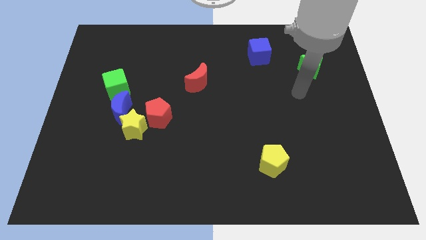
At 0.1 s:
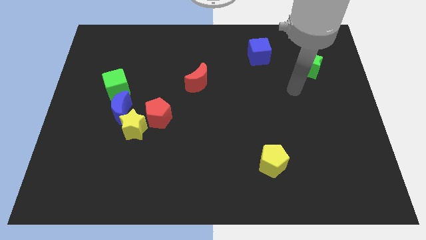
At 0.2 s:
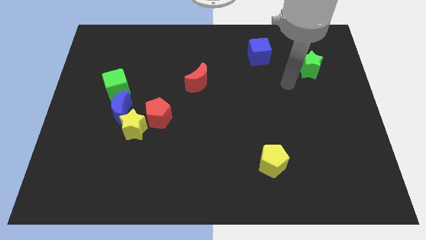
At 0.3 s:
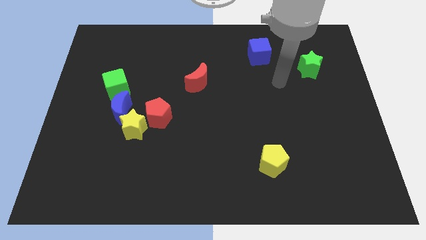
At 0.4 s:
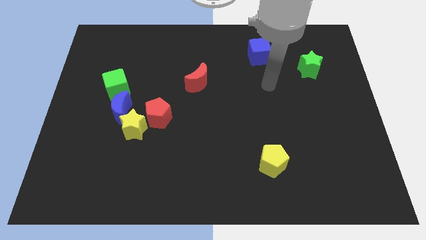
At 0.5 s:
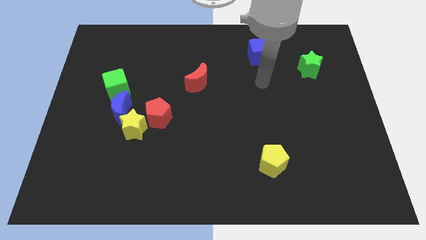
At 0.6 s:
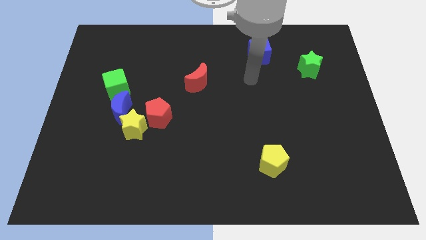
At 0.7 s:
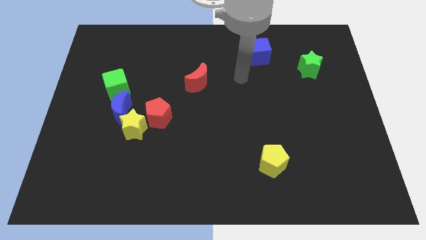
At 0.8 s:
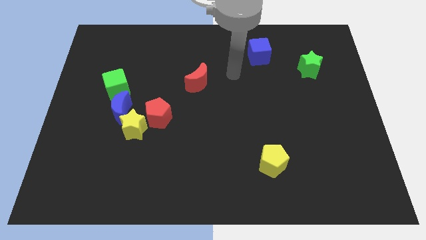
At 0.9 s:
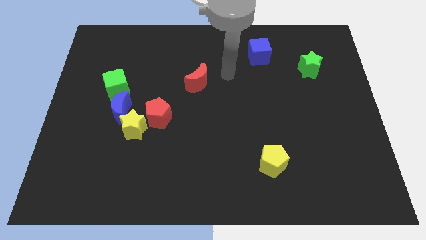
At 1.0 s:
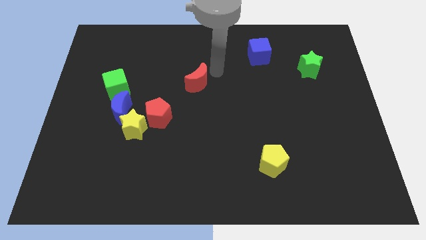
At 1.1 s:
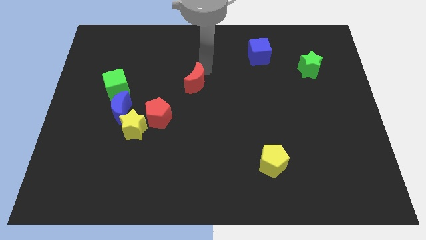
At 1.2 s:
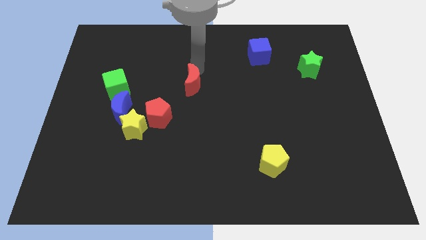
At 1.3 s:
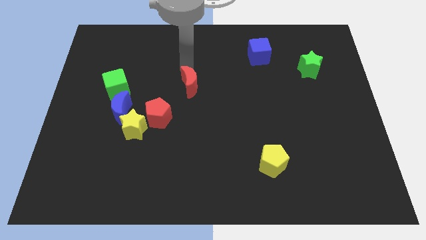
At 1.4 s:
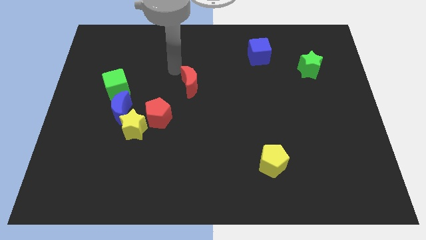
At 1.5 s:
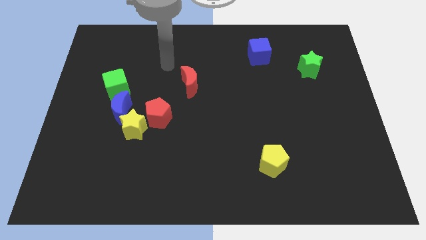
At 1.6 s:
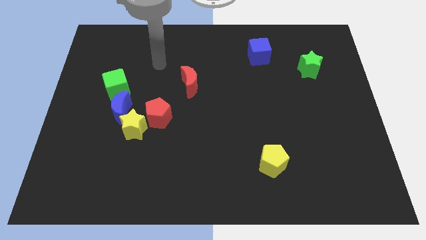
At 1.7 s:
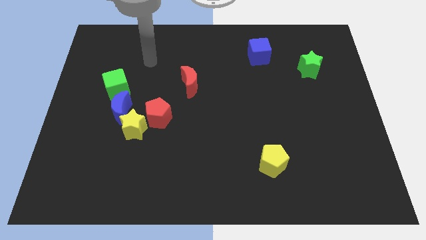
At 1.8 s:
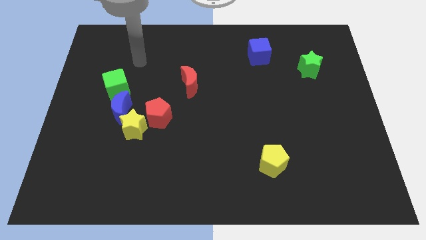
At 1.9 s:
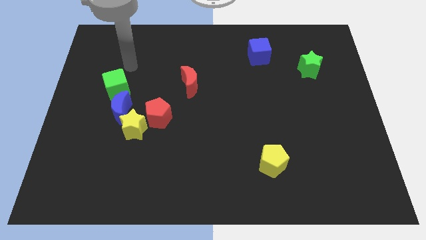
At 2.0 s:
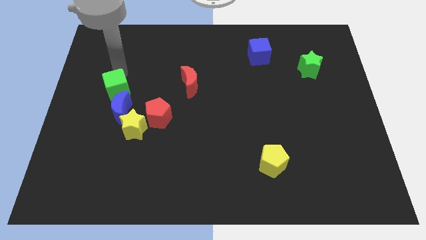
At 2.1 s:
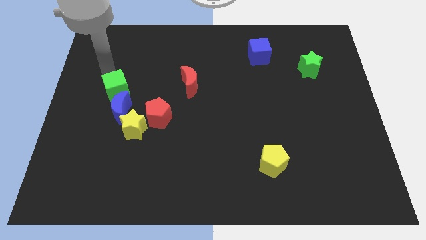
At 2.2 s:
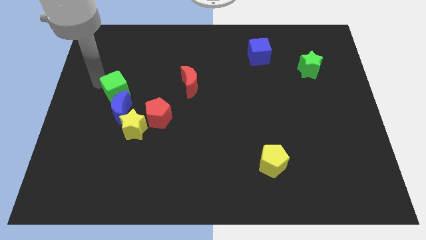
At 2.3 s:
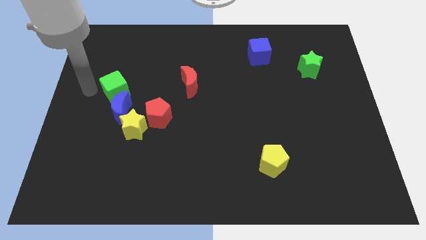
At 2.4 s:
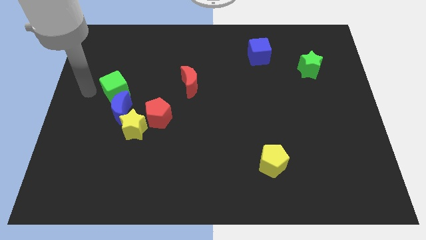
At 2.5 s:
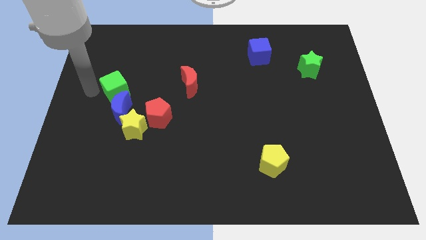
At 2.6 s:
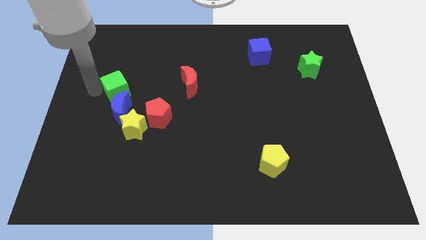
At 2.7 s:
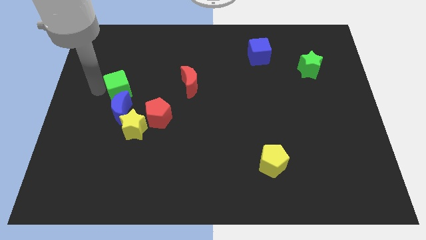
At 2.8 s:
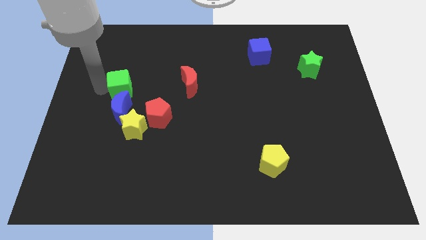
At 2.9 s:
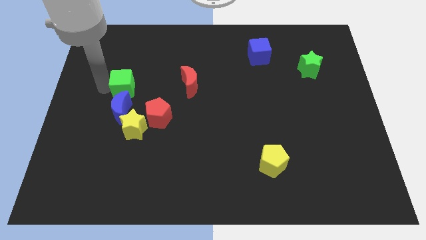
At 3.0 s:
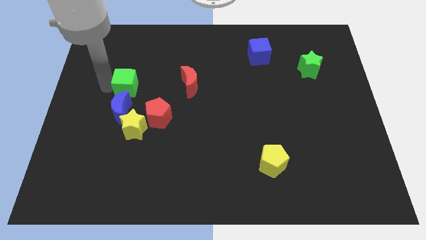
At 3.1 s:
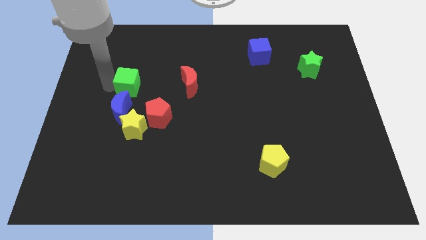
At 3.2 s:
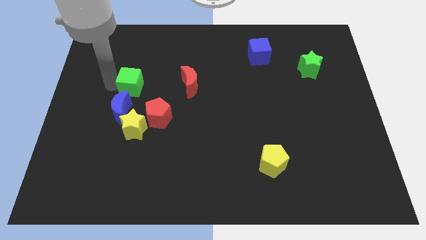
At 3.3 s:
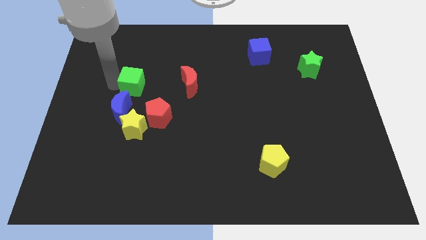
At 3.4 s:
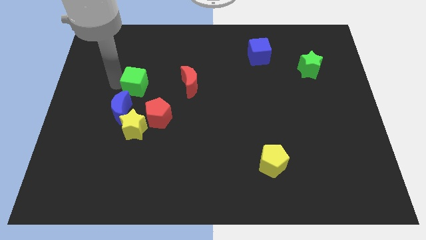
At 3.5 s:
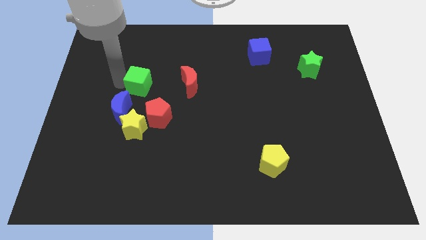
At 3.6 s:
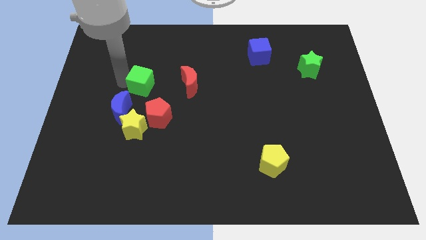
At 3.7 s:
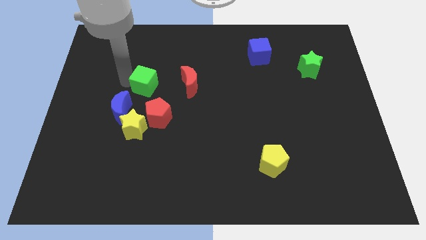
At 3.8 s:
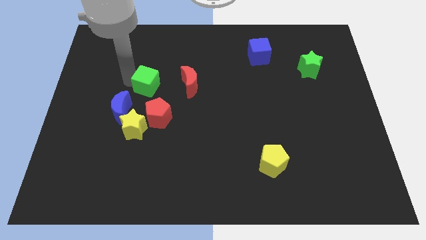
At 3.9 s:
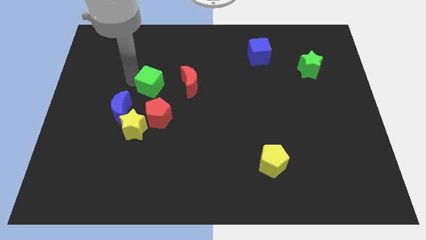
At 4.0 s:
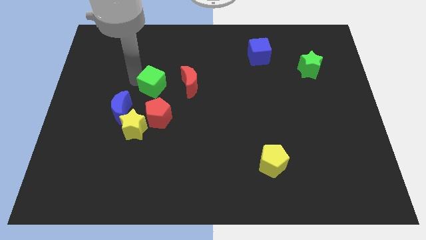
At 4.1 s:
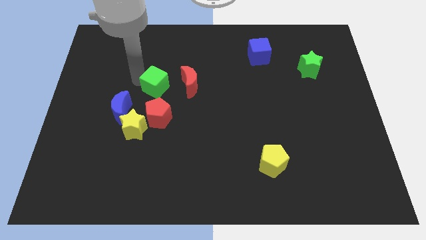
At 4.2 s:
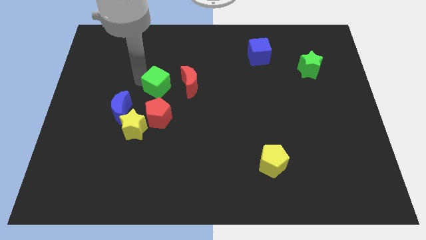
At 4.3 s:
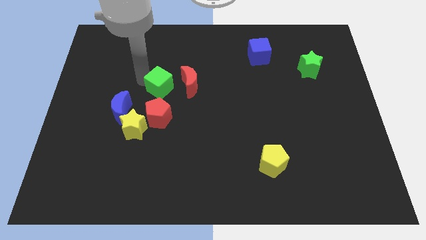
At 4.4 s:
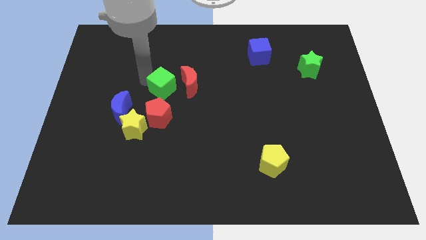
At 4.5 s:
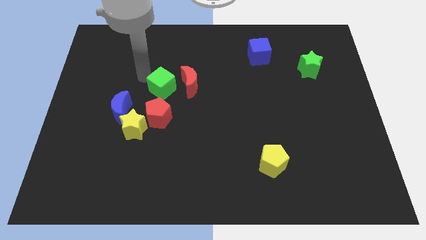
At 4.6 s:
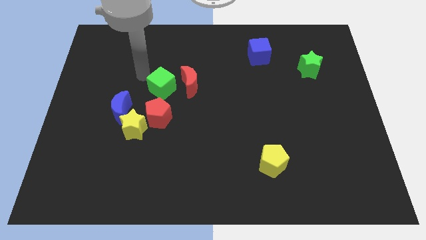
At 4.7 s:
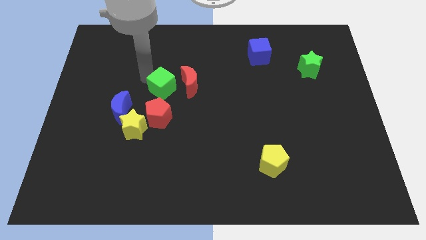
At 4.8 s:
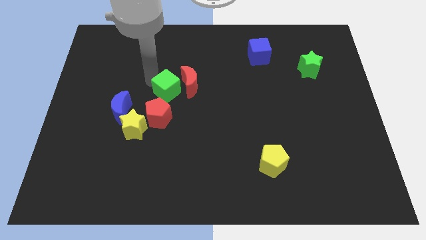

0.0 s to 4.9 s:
push the green cube to the top right of the red pentagon

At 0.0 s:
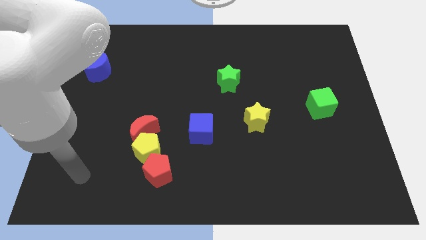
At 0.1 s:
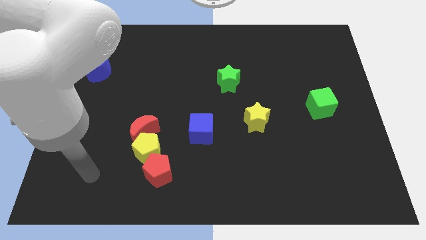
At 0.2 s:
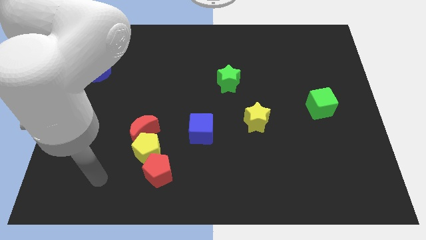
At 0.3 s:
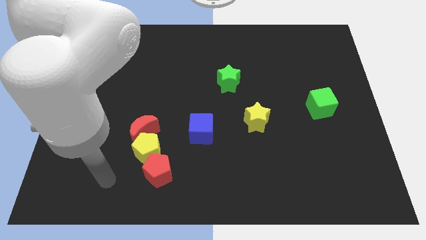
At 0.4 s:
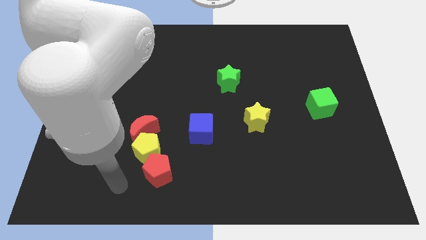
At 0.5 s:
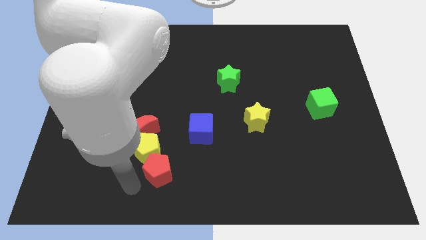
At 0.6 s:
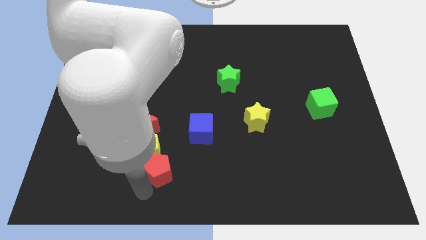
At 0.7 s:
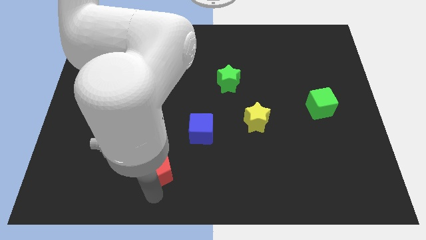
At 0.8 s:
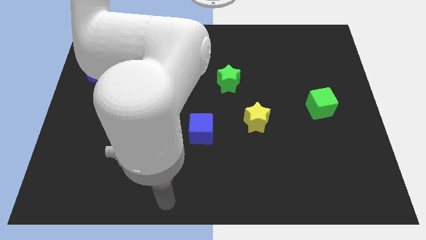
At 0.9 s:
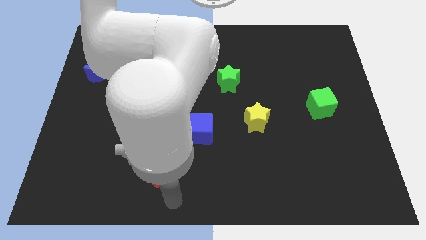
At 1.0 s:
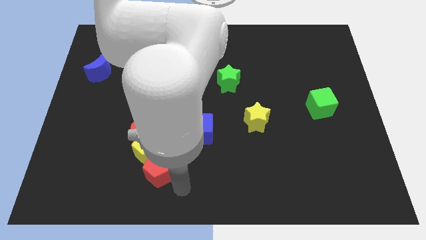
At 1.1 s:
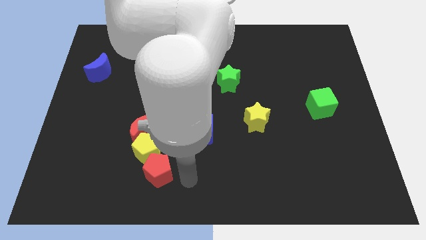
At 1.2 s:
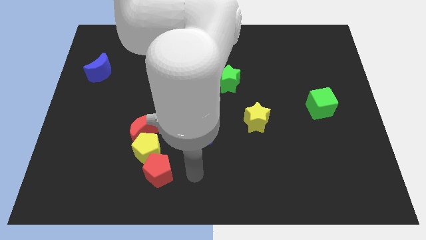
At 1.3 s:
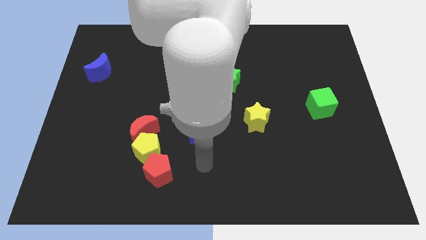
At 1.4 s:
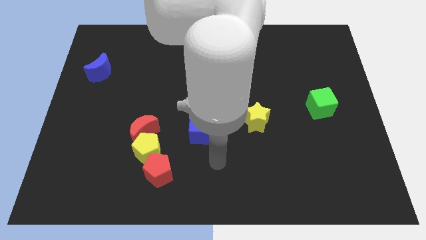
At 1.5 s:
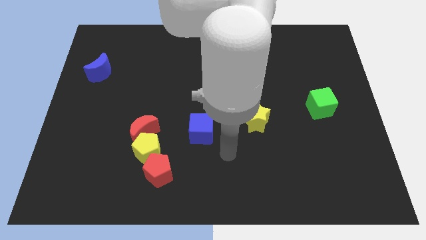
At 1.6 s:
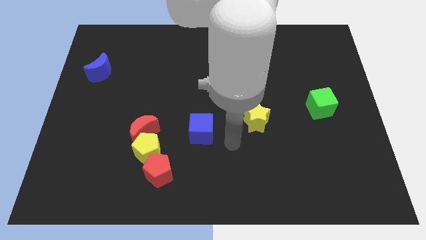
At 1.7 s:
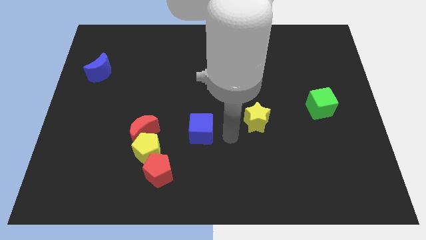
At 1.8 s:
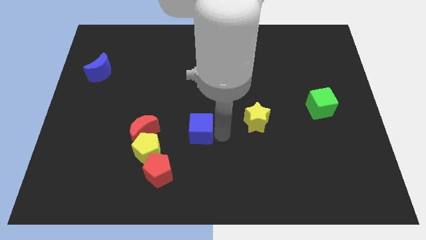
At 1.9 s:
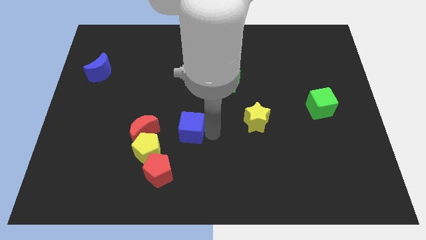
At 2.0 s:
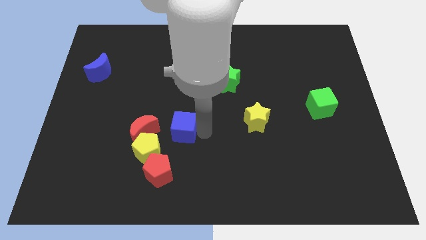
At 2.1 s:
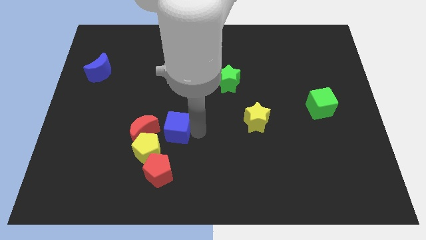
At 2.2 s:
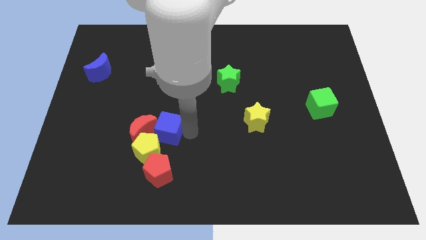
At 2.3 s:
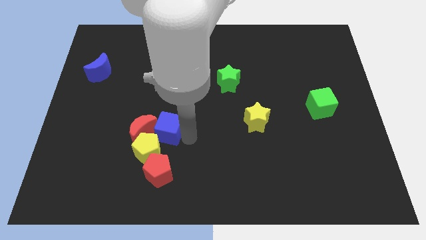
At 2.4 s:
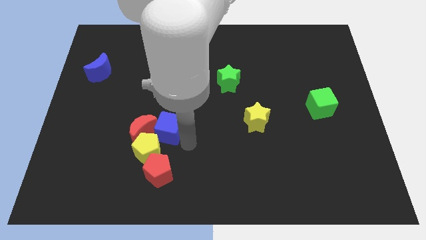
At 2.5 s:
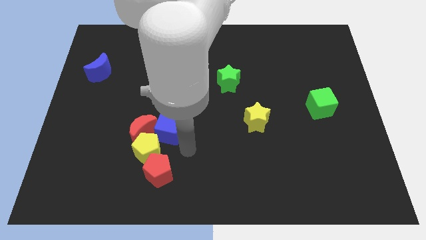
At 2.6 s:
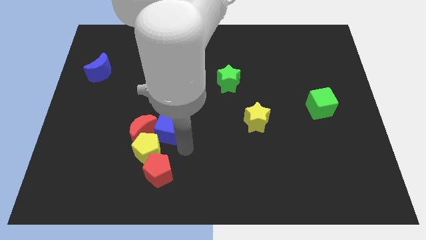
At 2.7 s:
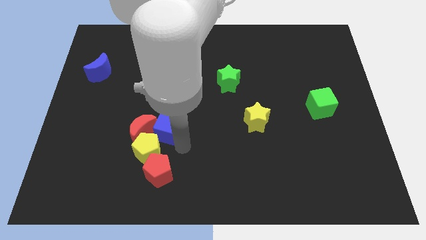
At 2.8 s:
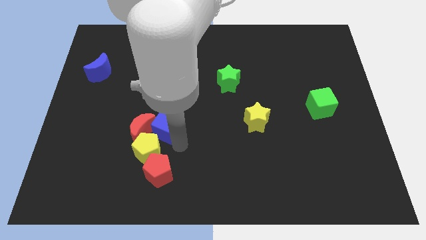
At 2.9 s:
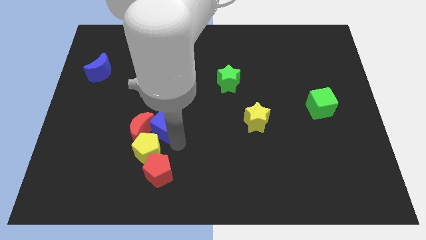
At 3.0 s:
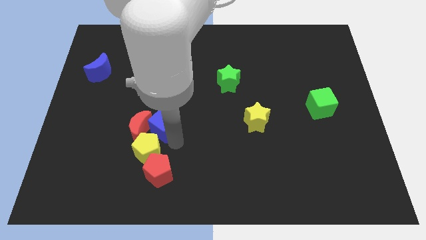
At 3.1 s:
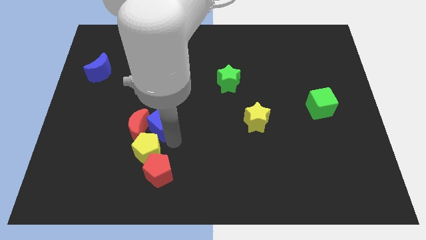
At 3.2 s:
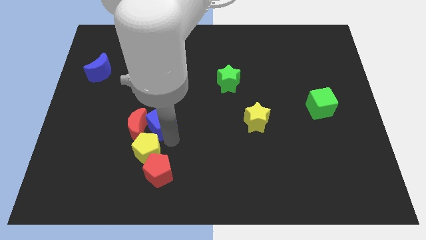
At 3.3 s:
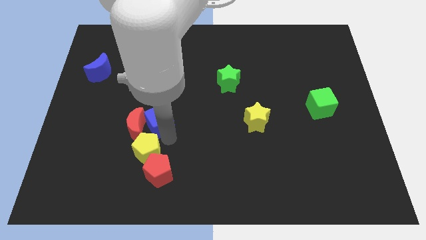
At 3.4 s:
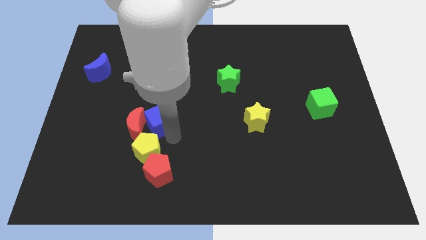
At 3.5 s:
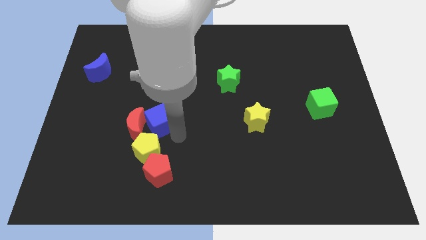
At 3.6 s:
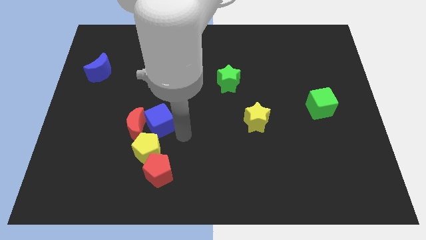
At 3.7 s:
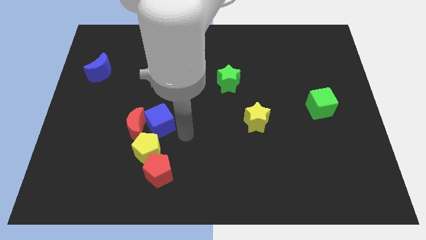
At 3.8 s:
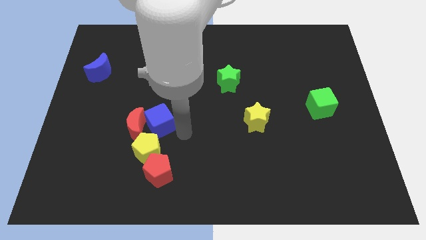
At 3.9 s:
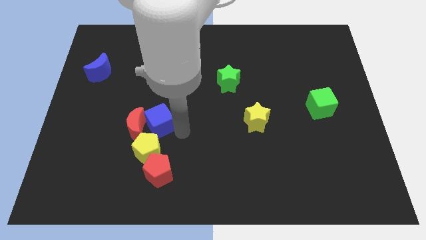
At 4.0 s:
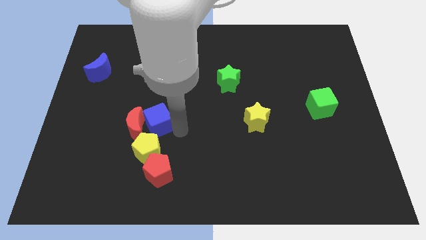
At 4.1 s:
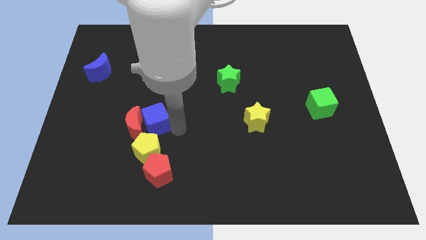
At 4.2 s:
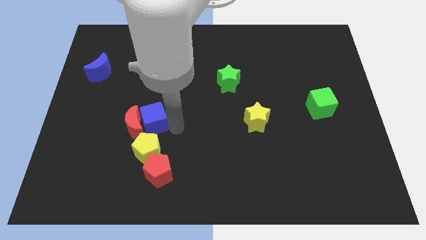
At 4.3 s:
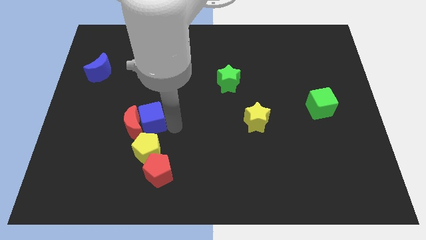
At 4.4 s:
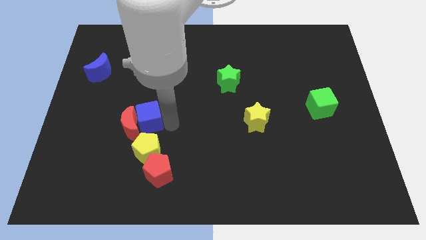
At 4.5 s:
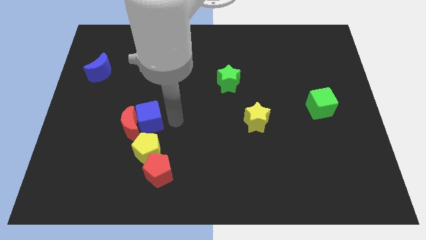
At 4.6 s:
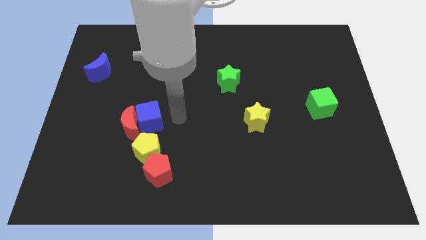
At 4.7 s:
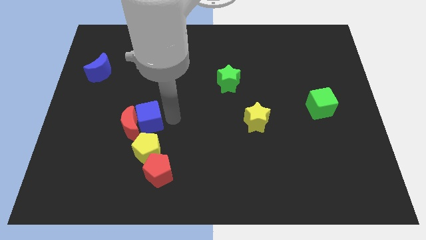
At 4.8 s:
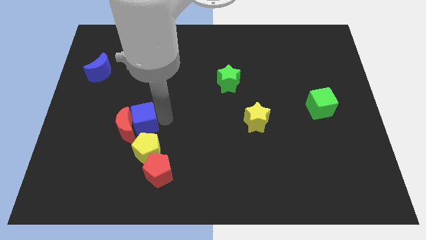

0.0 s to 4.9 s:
push the blue cube diagonally up and to the left of the yellow pentagon
